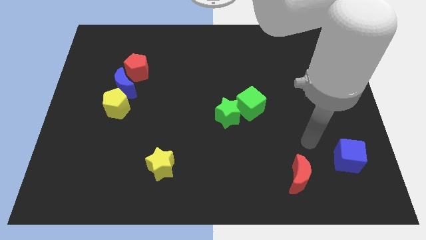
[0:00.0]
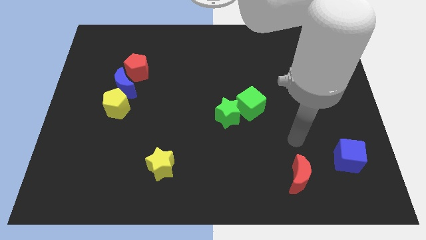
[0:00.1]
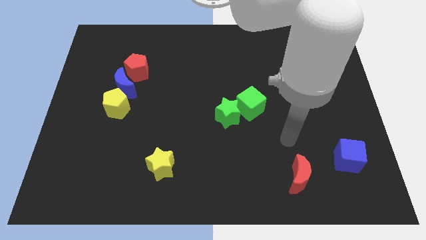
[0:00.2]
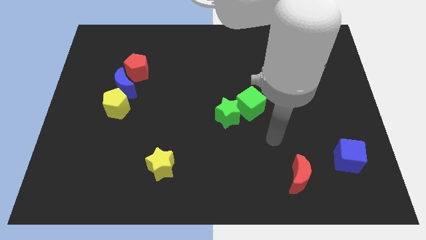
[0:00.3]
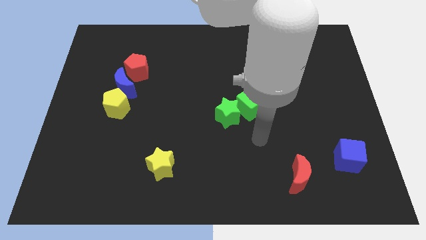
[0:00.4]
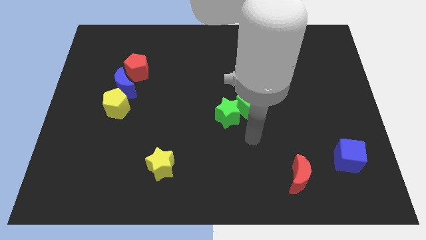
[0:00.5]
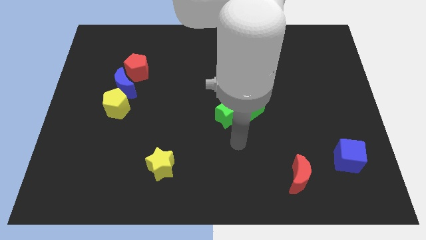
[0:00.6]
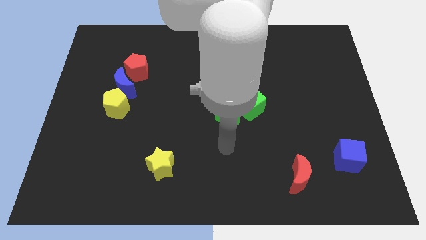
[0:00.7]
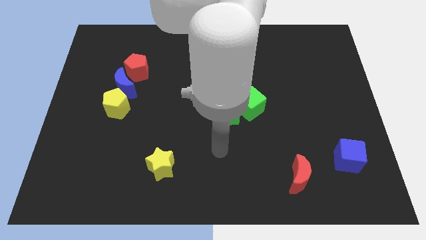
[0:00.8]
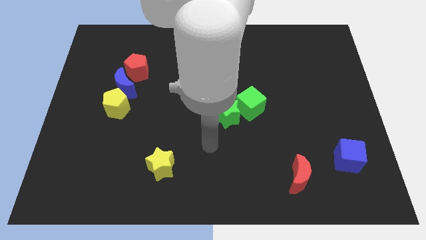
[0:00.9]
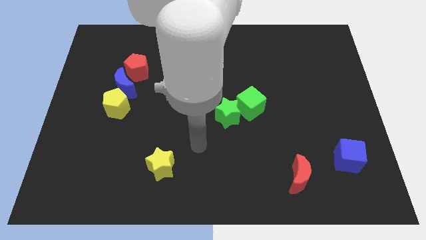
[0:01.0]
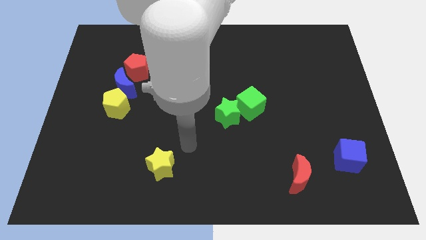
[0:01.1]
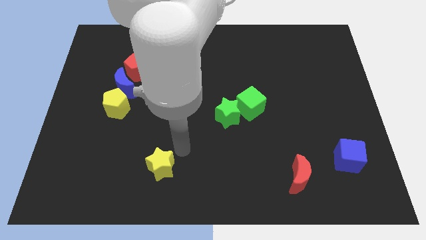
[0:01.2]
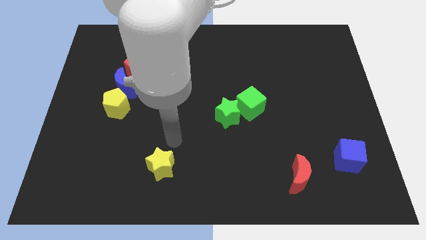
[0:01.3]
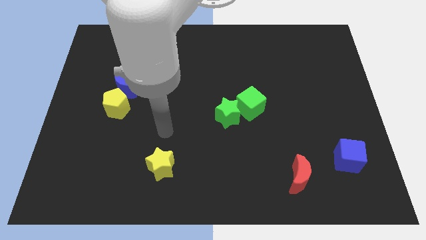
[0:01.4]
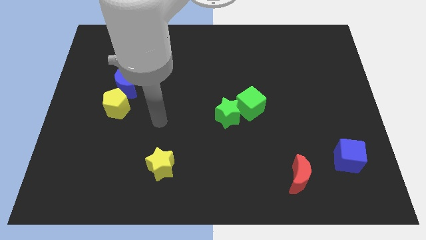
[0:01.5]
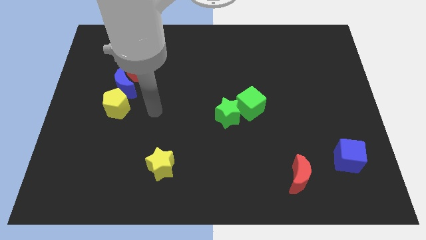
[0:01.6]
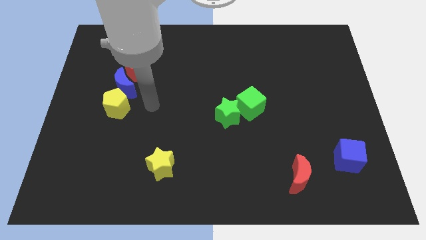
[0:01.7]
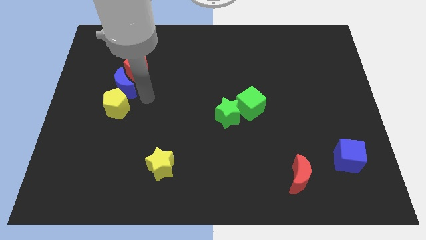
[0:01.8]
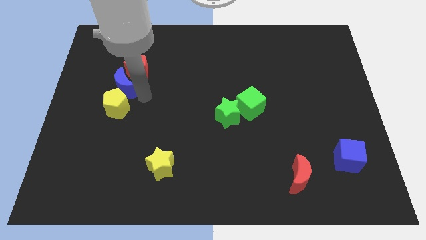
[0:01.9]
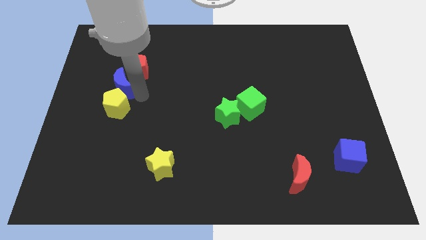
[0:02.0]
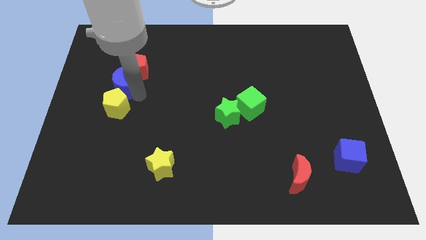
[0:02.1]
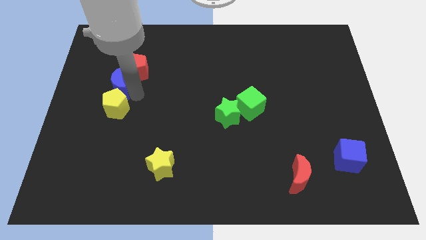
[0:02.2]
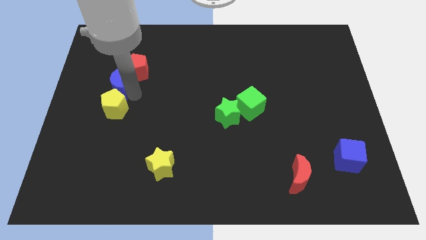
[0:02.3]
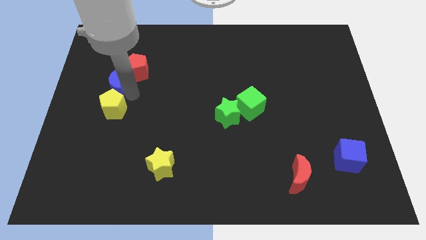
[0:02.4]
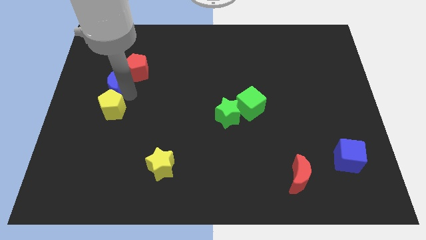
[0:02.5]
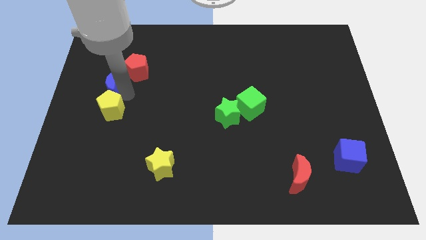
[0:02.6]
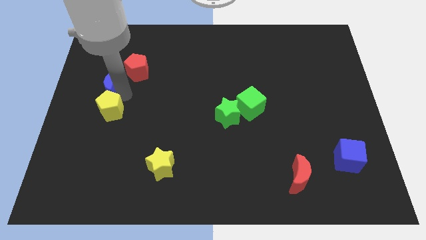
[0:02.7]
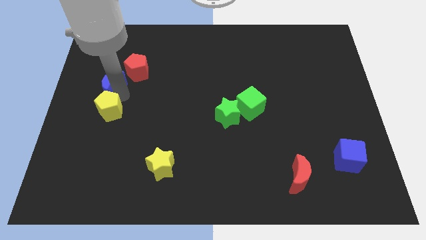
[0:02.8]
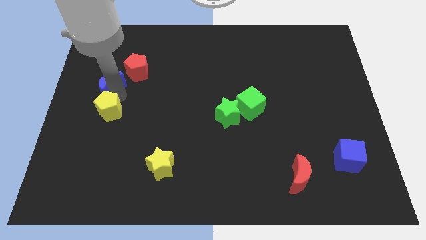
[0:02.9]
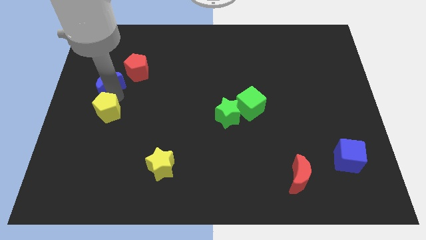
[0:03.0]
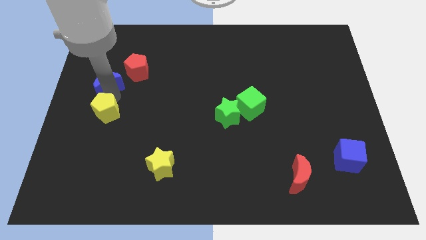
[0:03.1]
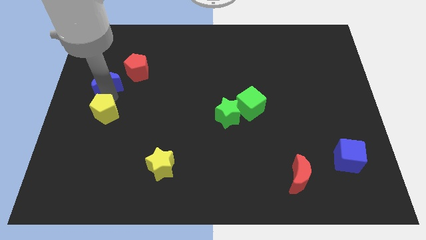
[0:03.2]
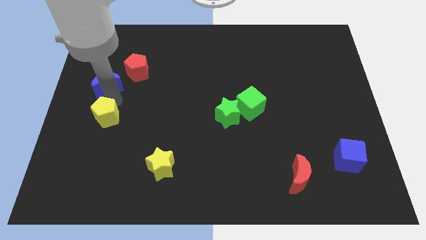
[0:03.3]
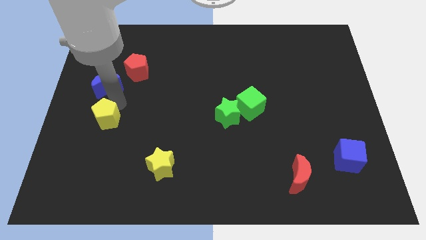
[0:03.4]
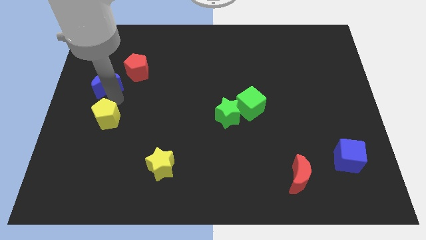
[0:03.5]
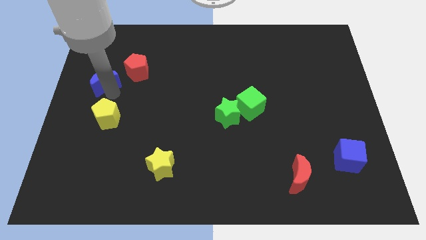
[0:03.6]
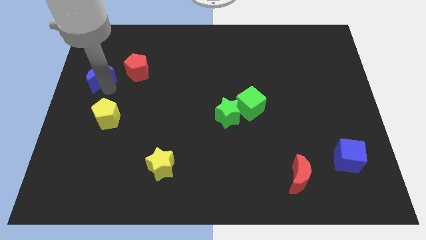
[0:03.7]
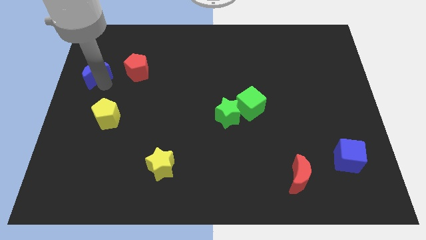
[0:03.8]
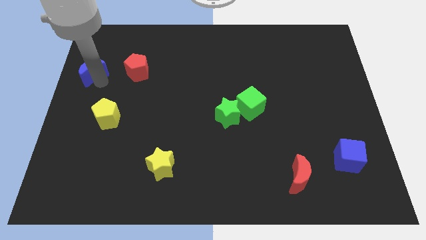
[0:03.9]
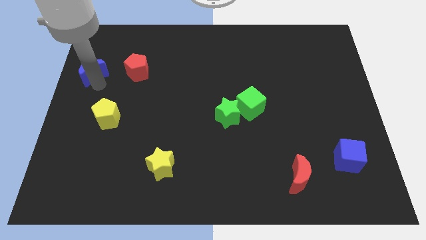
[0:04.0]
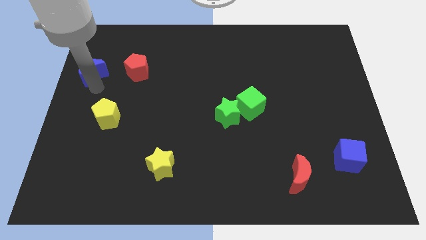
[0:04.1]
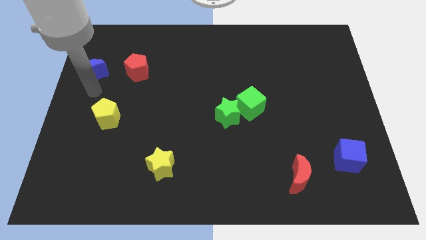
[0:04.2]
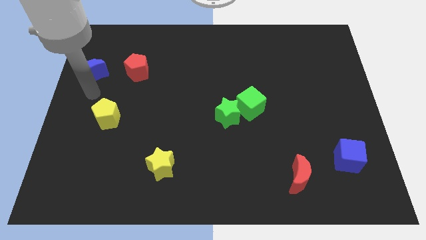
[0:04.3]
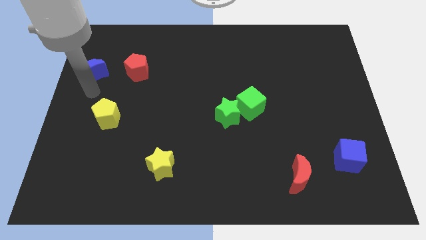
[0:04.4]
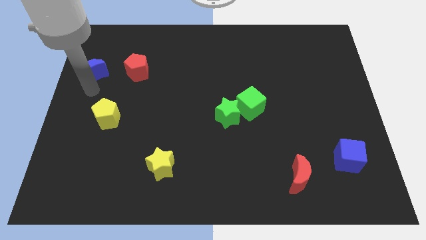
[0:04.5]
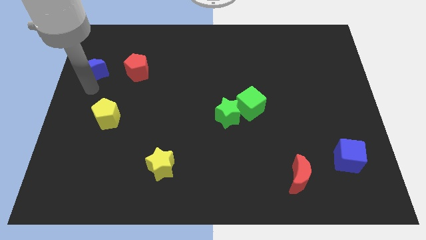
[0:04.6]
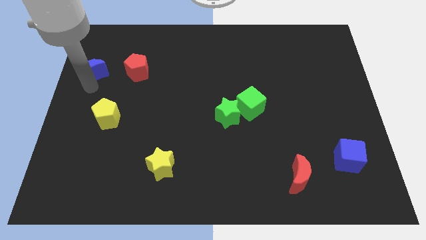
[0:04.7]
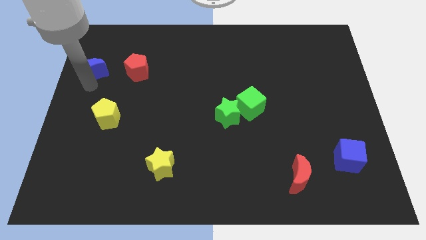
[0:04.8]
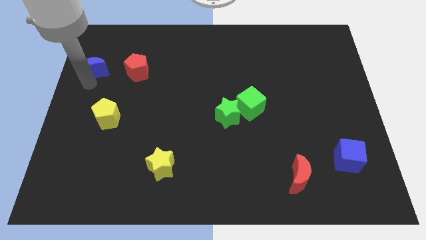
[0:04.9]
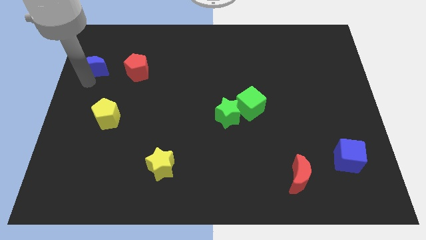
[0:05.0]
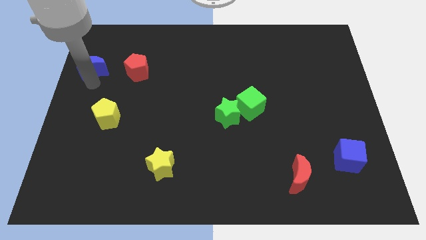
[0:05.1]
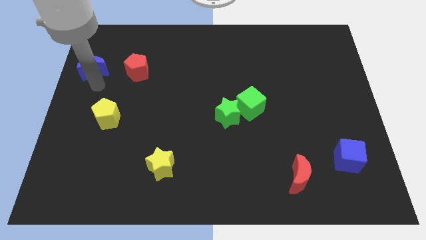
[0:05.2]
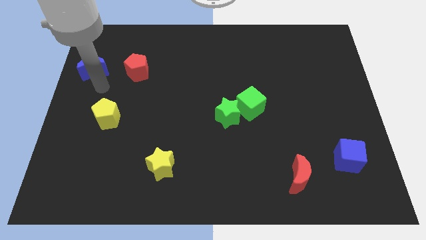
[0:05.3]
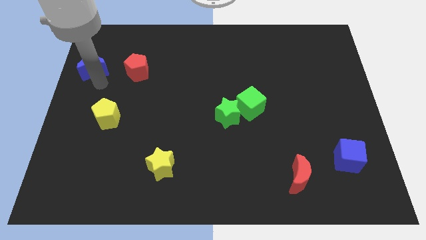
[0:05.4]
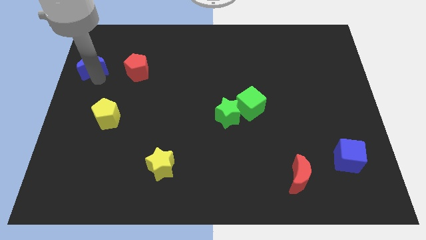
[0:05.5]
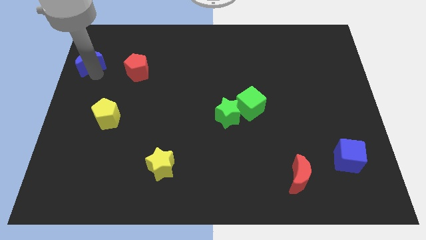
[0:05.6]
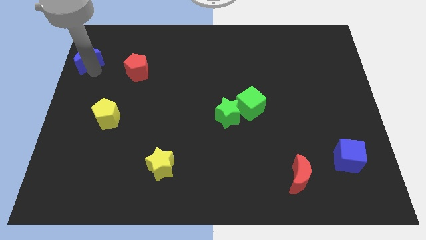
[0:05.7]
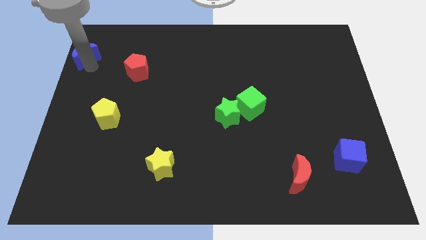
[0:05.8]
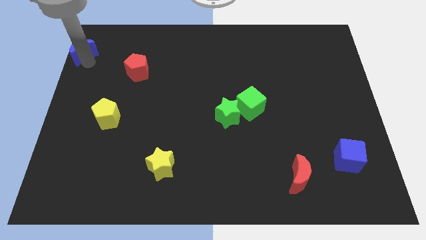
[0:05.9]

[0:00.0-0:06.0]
move the blue moon to the top left of the board

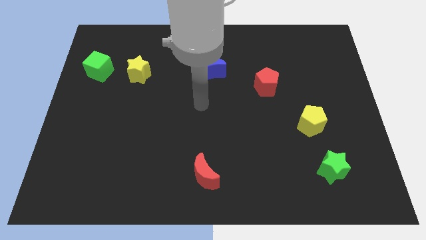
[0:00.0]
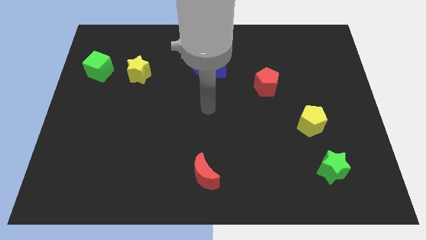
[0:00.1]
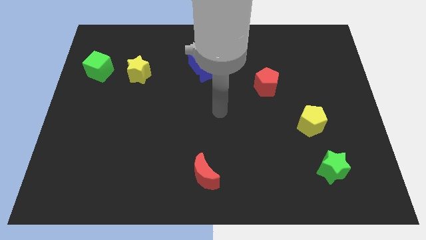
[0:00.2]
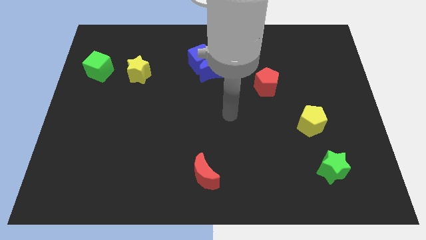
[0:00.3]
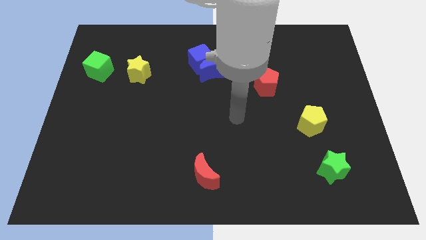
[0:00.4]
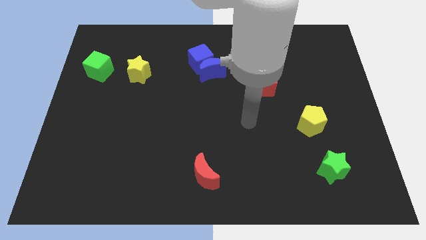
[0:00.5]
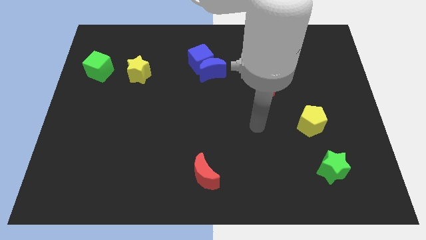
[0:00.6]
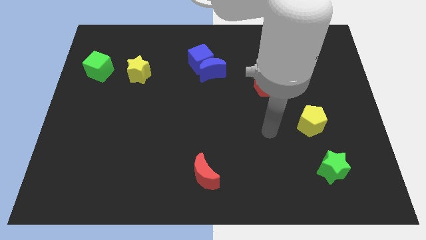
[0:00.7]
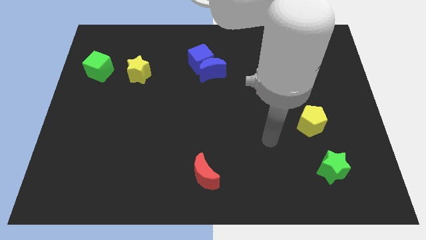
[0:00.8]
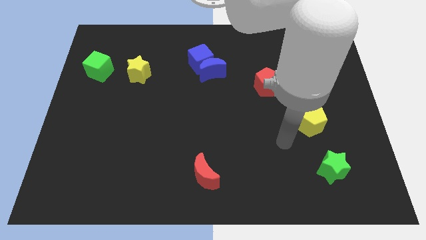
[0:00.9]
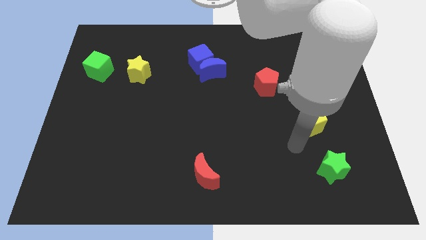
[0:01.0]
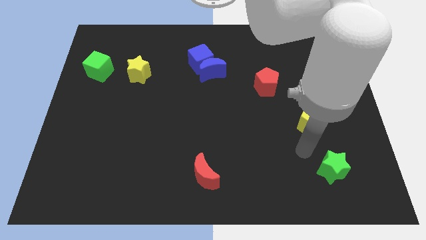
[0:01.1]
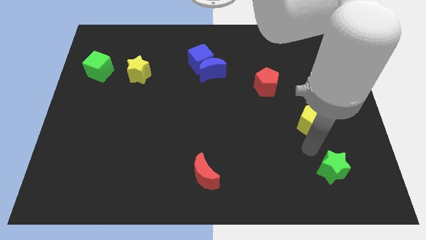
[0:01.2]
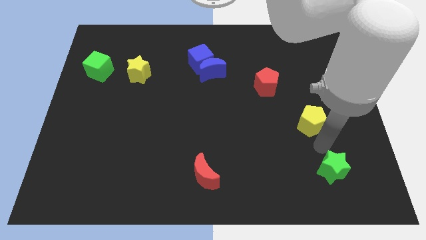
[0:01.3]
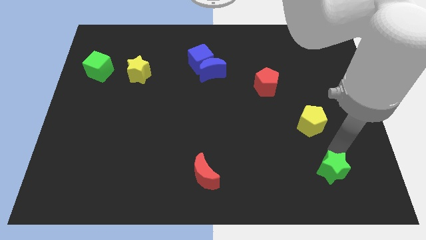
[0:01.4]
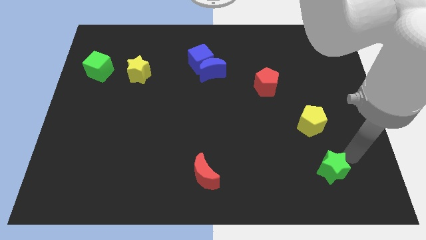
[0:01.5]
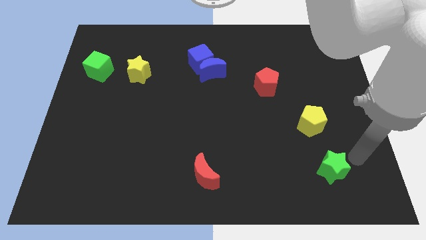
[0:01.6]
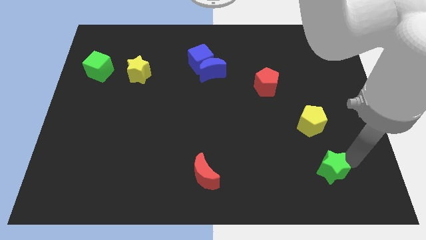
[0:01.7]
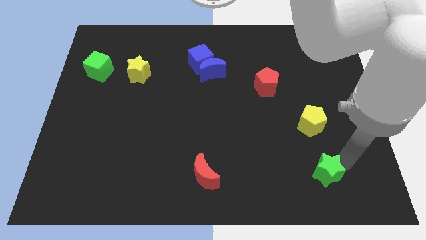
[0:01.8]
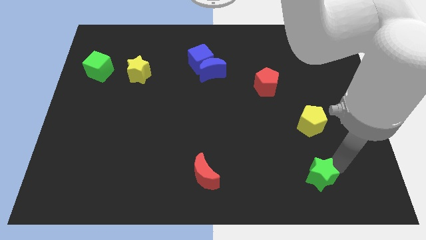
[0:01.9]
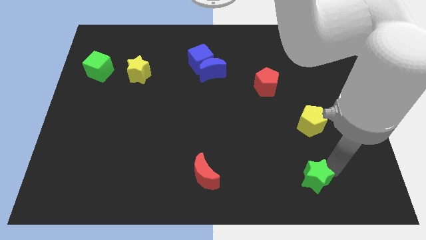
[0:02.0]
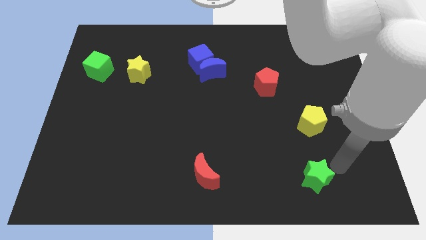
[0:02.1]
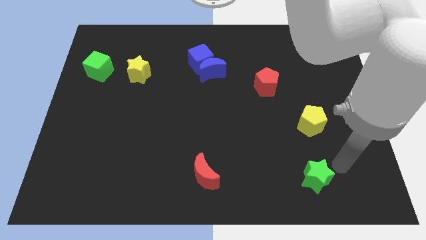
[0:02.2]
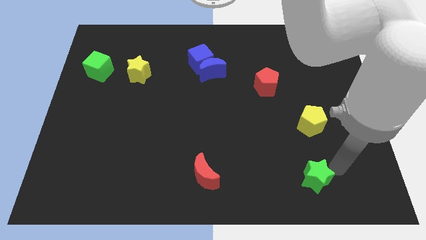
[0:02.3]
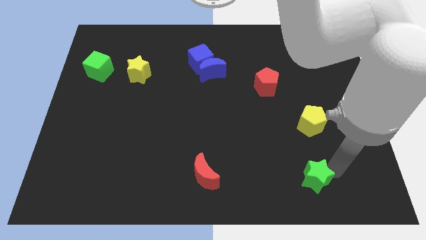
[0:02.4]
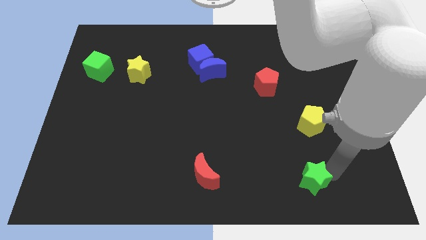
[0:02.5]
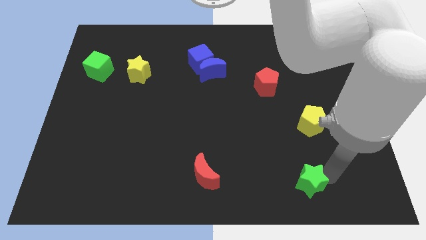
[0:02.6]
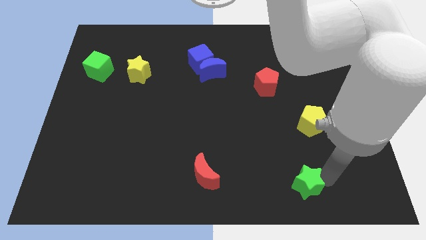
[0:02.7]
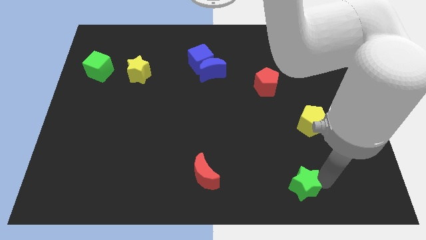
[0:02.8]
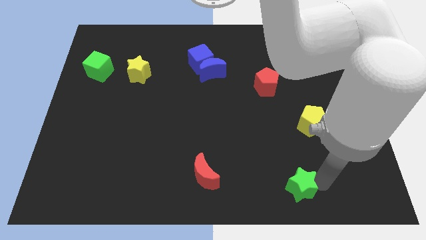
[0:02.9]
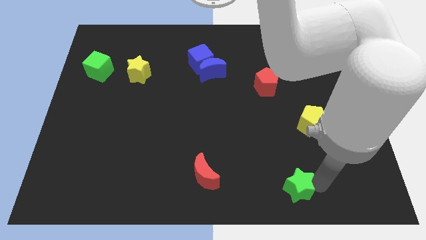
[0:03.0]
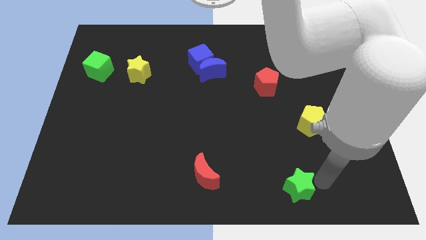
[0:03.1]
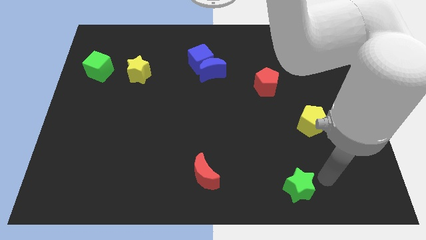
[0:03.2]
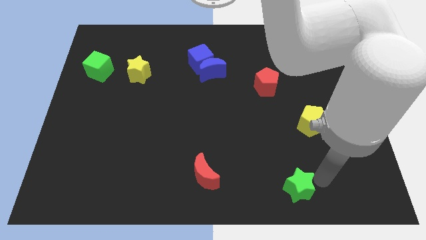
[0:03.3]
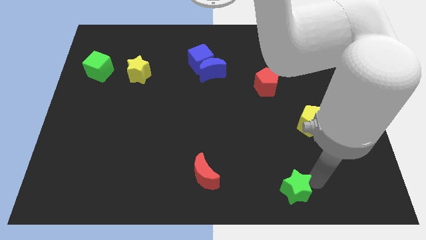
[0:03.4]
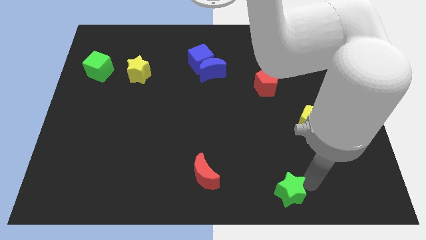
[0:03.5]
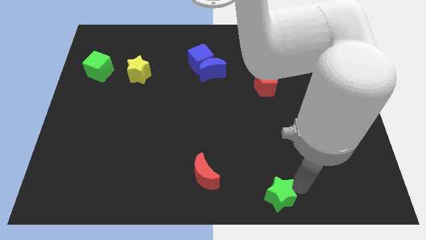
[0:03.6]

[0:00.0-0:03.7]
push the green star to the bottom side
